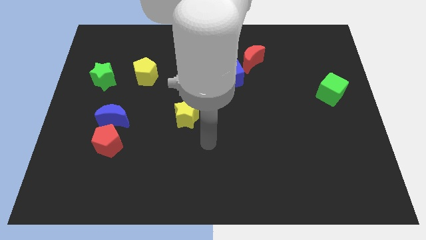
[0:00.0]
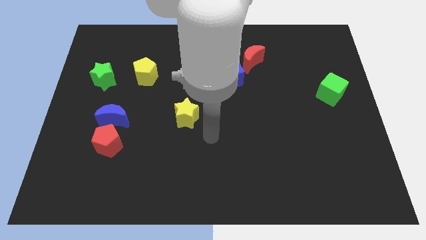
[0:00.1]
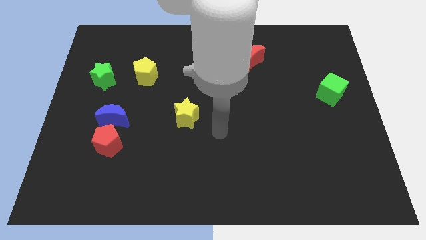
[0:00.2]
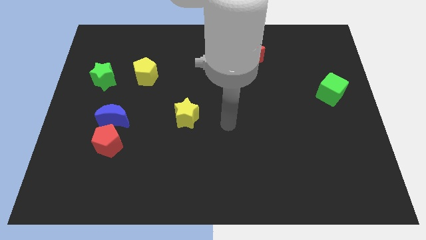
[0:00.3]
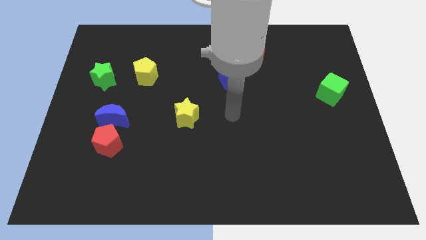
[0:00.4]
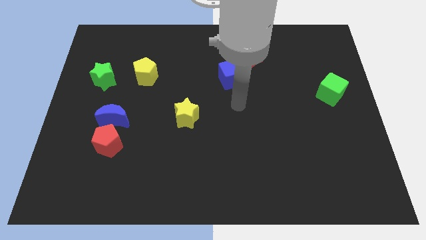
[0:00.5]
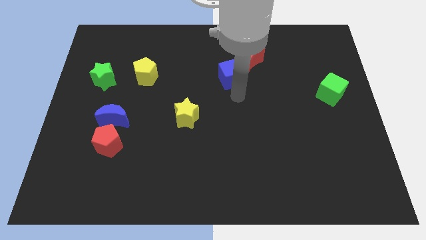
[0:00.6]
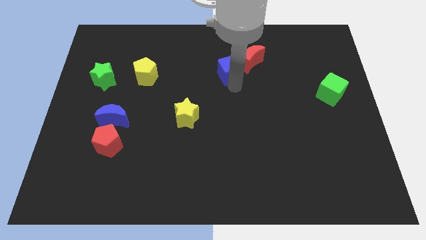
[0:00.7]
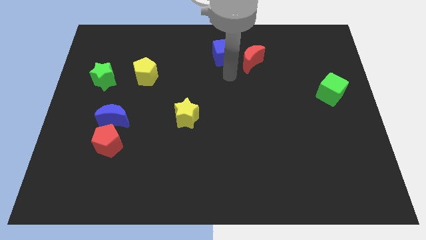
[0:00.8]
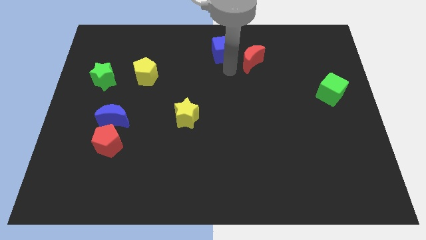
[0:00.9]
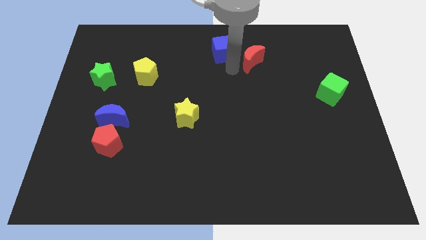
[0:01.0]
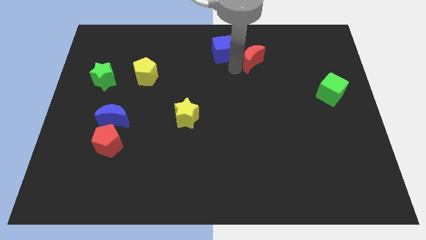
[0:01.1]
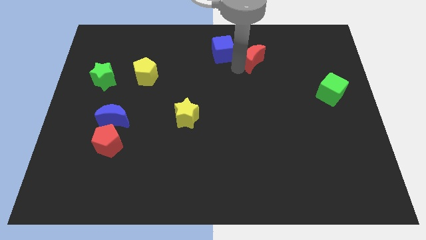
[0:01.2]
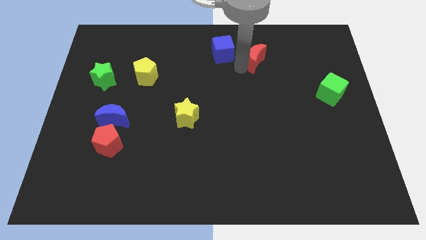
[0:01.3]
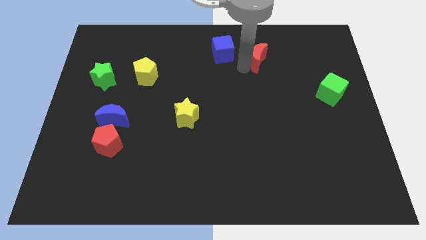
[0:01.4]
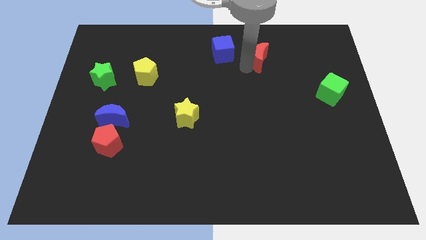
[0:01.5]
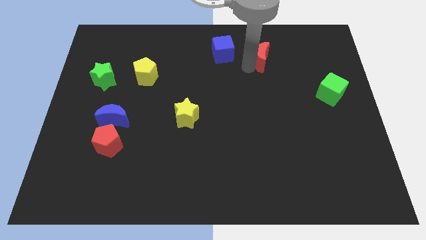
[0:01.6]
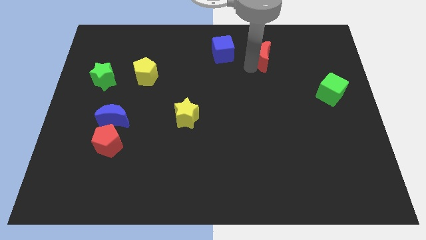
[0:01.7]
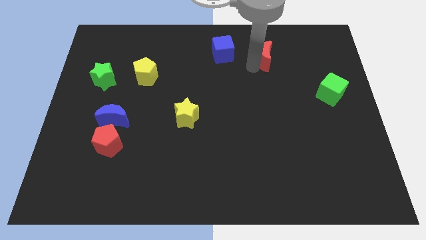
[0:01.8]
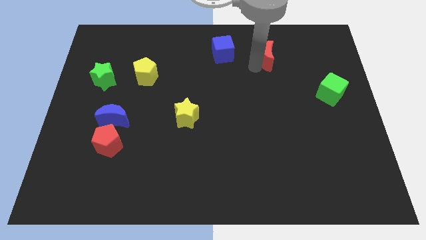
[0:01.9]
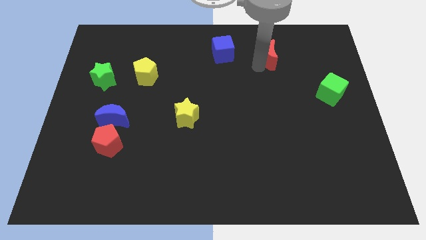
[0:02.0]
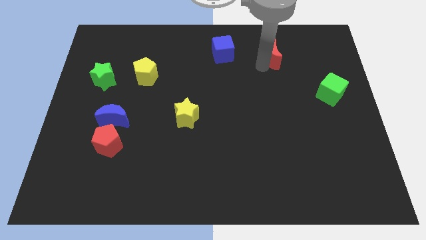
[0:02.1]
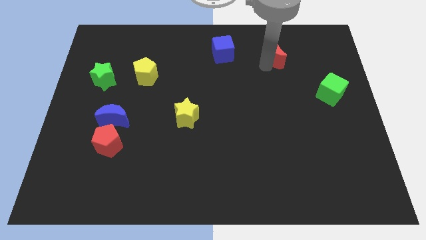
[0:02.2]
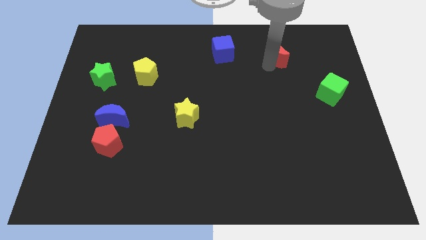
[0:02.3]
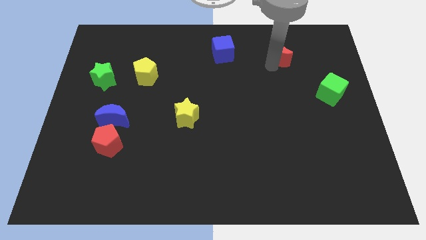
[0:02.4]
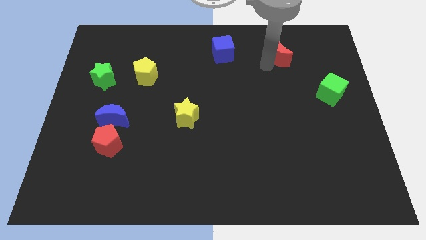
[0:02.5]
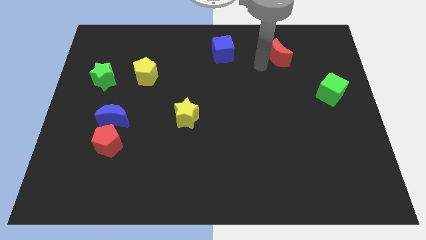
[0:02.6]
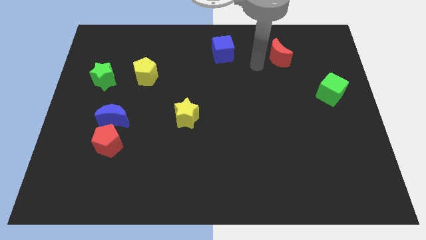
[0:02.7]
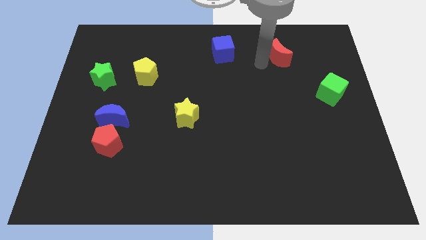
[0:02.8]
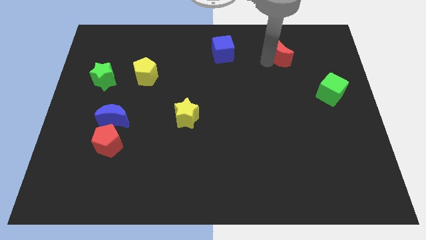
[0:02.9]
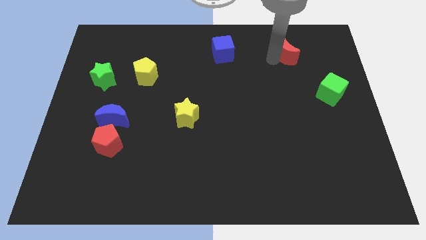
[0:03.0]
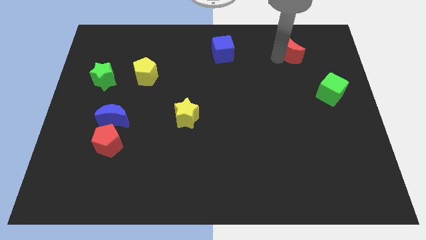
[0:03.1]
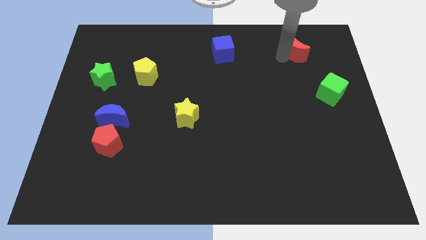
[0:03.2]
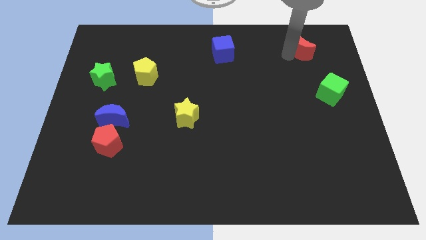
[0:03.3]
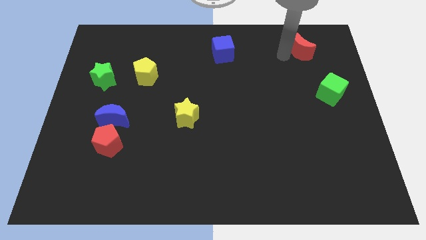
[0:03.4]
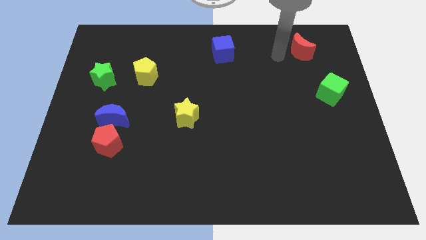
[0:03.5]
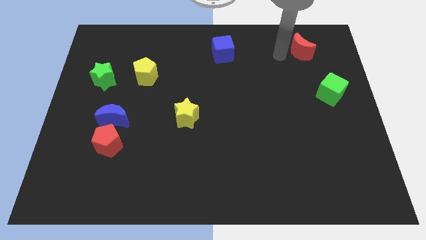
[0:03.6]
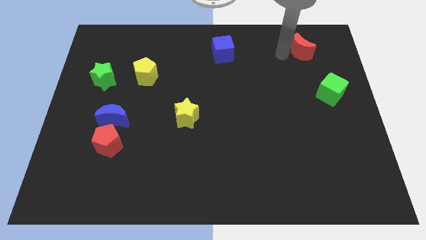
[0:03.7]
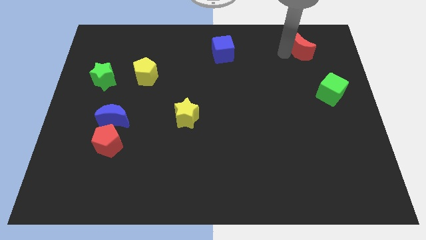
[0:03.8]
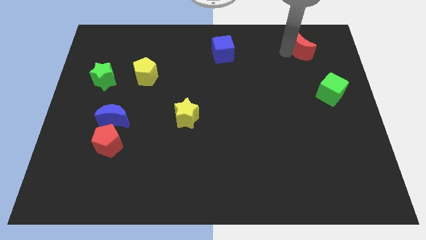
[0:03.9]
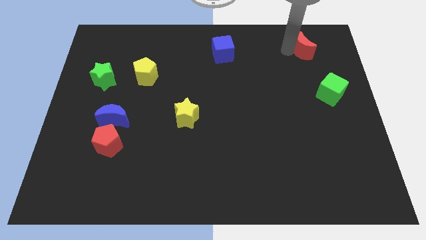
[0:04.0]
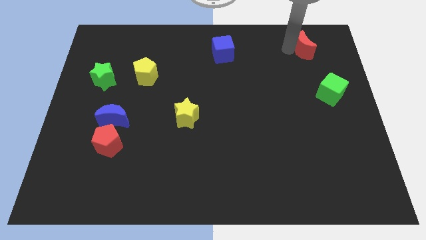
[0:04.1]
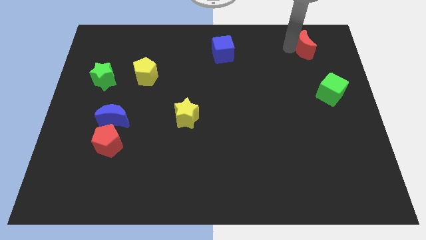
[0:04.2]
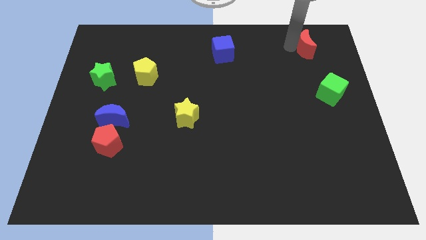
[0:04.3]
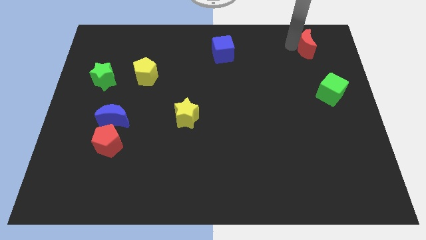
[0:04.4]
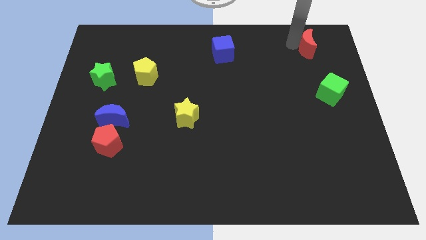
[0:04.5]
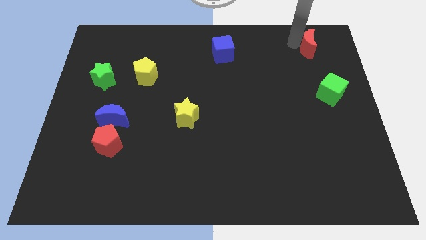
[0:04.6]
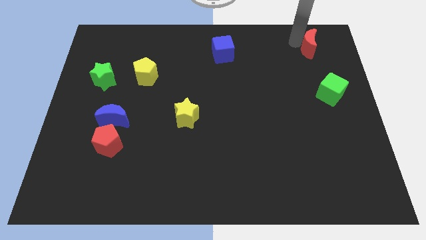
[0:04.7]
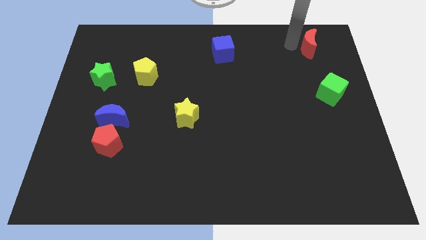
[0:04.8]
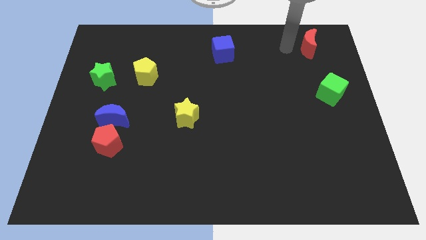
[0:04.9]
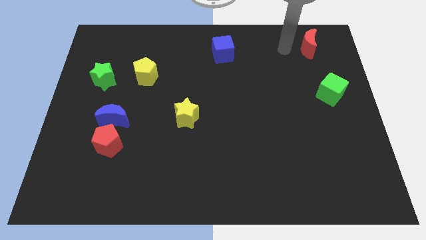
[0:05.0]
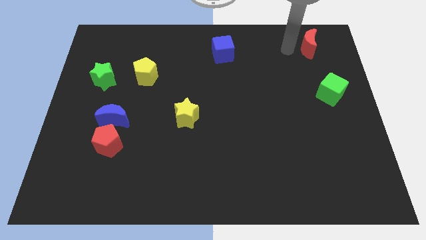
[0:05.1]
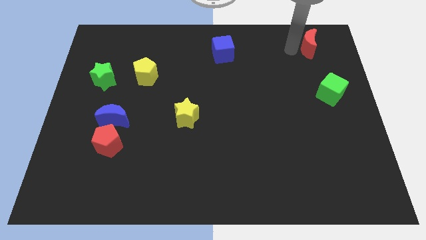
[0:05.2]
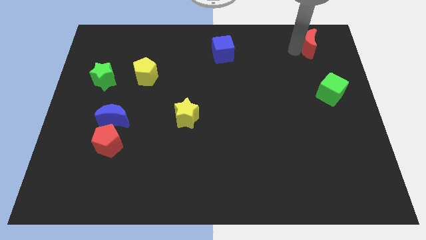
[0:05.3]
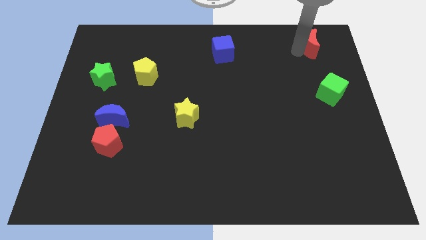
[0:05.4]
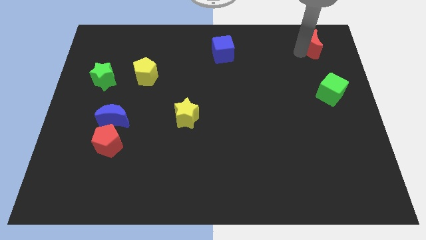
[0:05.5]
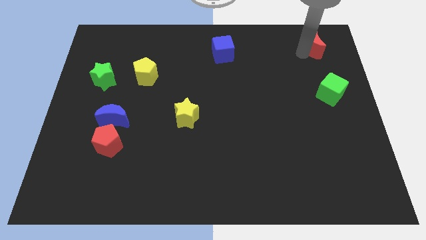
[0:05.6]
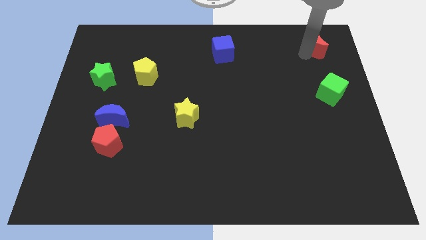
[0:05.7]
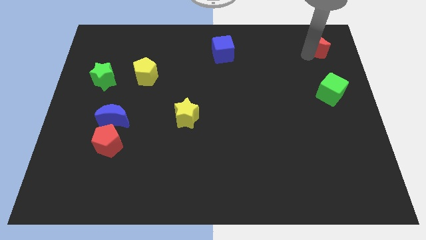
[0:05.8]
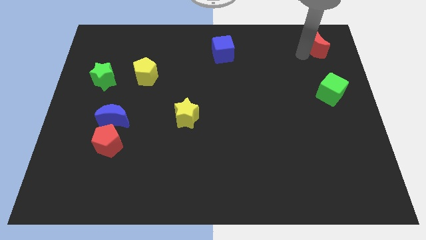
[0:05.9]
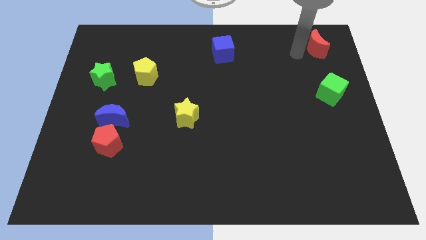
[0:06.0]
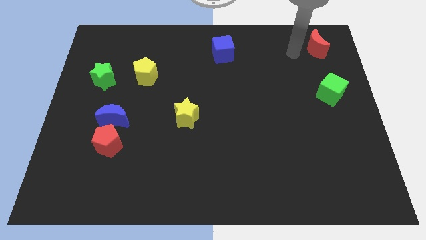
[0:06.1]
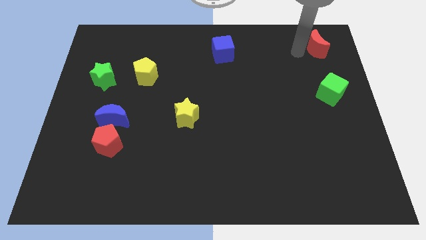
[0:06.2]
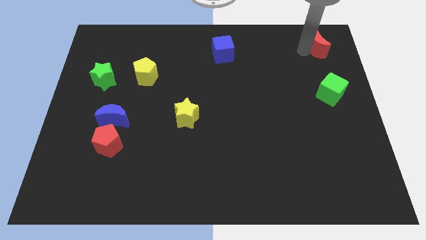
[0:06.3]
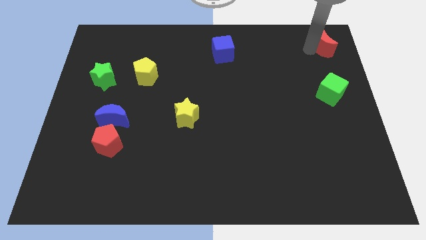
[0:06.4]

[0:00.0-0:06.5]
slide the red moon to the upper right corner

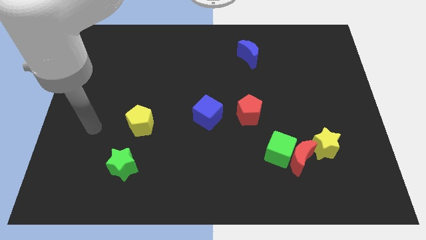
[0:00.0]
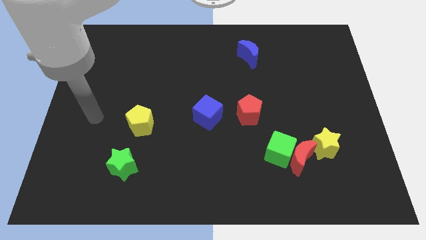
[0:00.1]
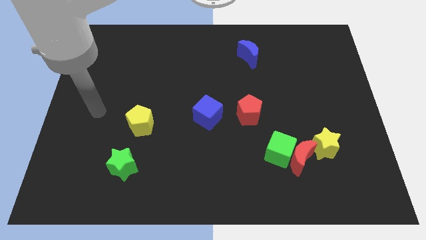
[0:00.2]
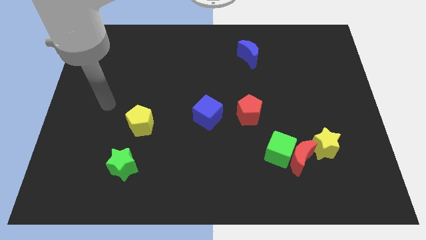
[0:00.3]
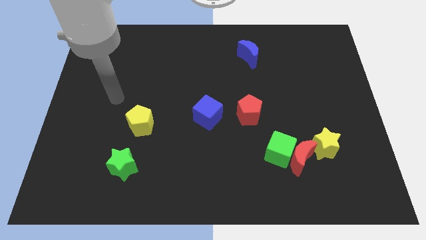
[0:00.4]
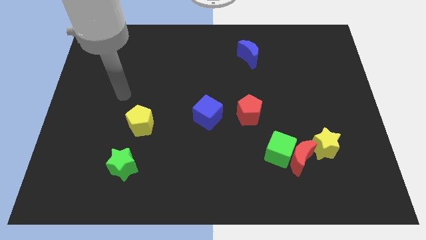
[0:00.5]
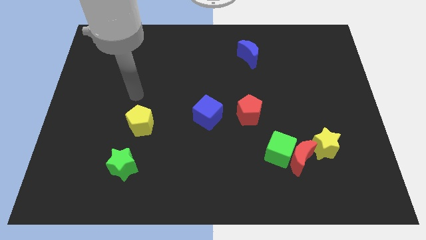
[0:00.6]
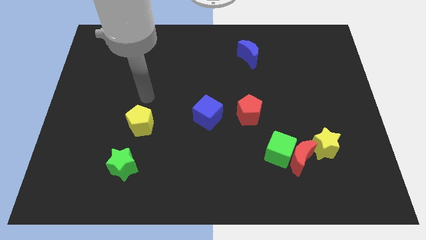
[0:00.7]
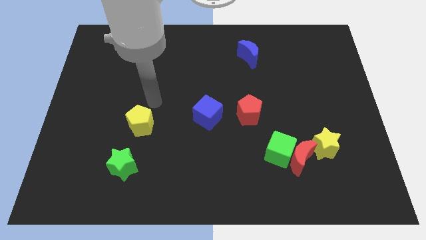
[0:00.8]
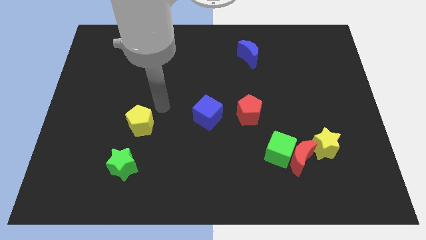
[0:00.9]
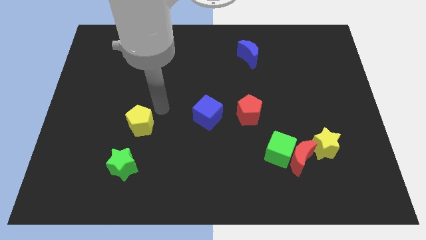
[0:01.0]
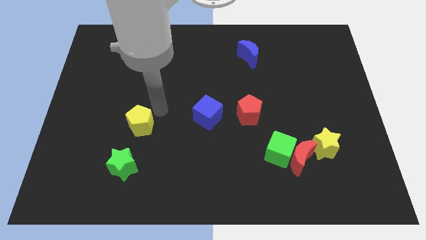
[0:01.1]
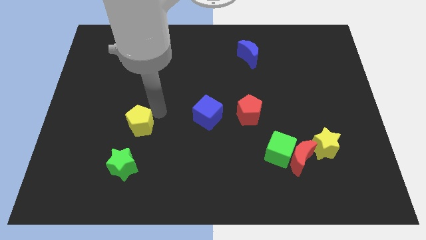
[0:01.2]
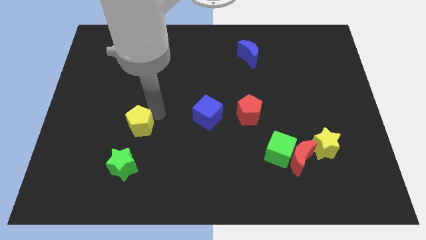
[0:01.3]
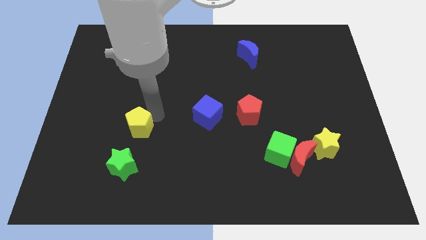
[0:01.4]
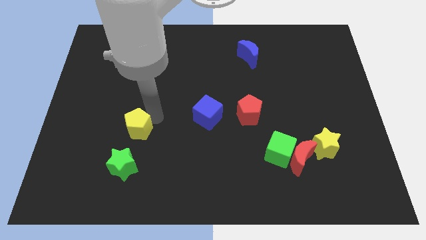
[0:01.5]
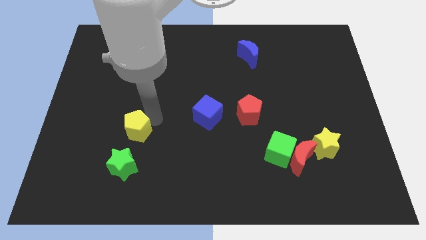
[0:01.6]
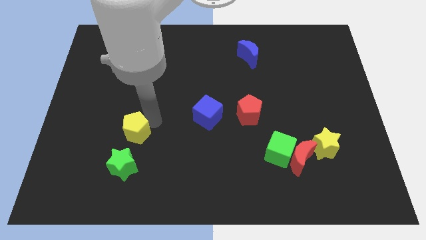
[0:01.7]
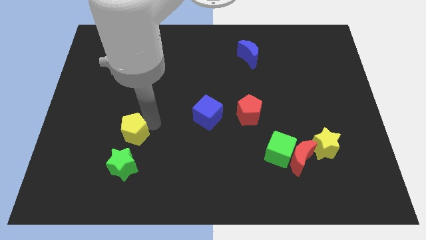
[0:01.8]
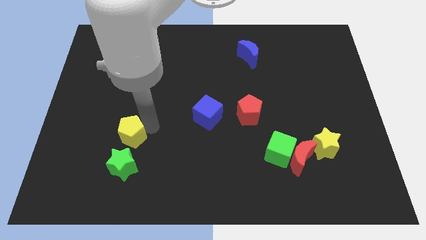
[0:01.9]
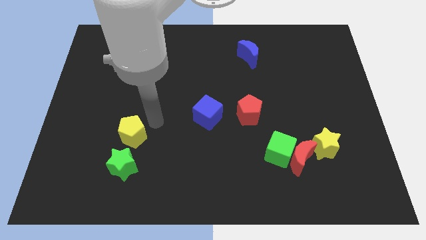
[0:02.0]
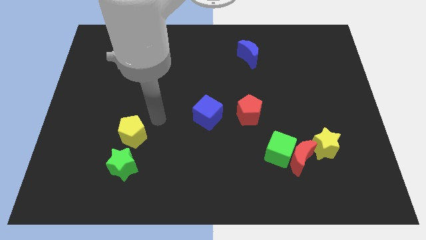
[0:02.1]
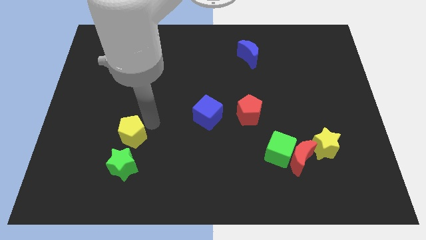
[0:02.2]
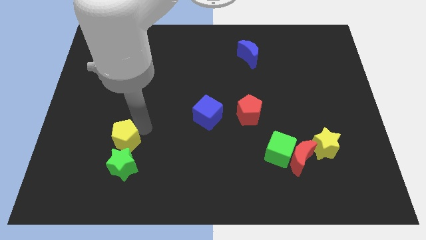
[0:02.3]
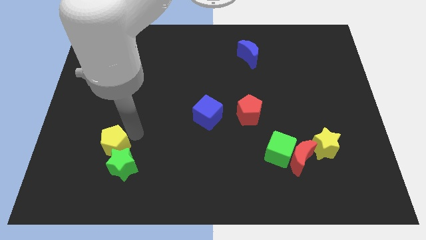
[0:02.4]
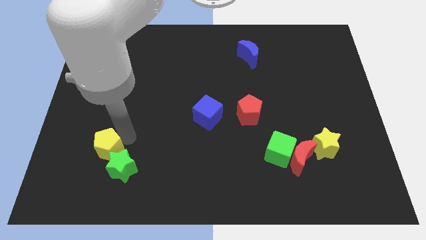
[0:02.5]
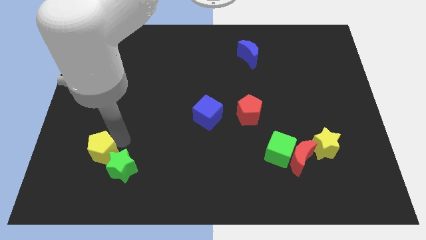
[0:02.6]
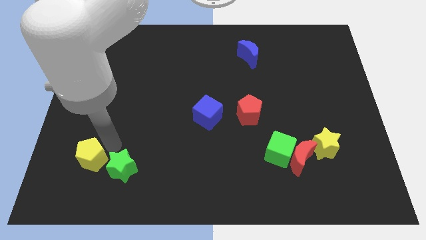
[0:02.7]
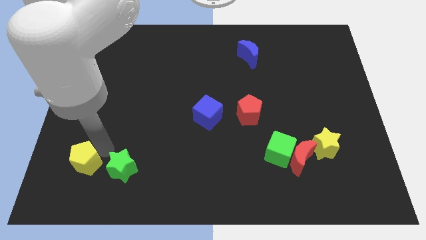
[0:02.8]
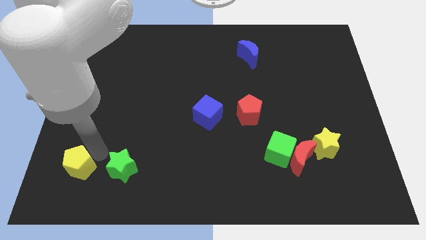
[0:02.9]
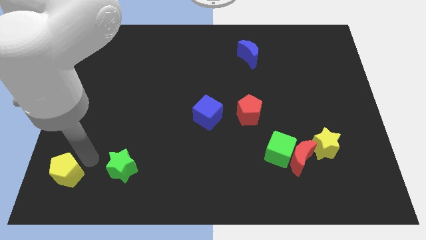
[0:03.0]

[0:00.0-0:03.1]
slide the yellow pentagon to the lower left corner
